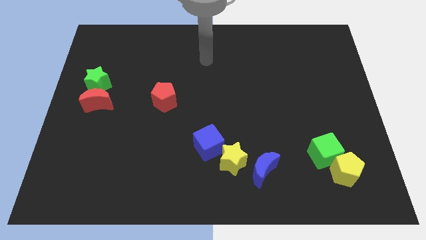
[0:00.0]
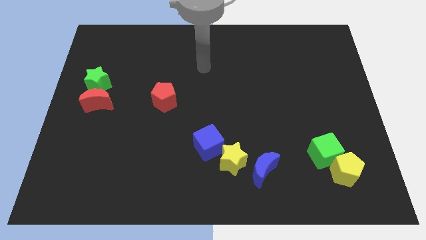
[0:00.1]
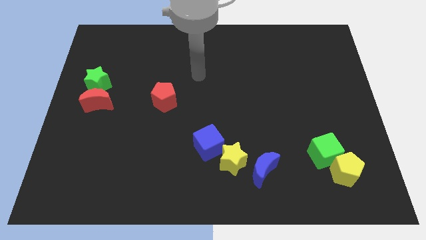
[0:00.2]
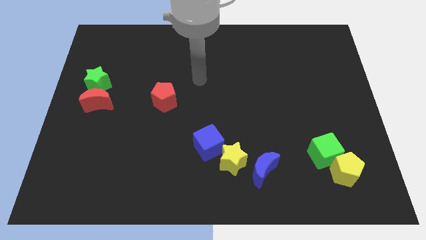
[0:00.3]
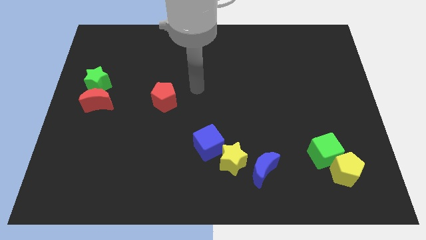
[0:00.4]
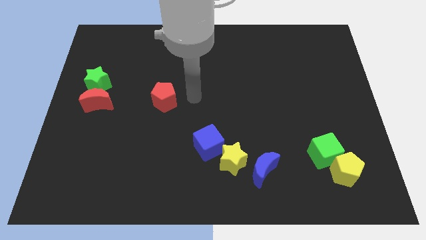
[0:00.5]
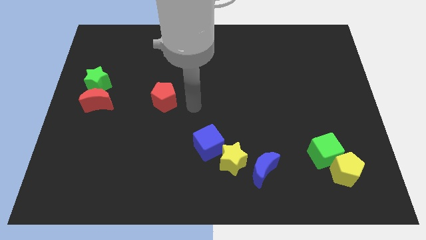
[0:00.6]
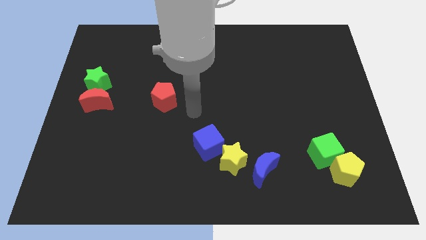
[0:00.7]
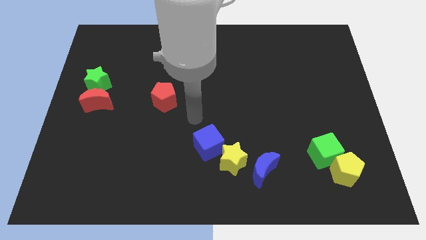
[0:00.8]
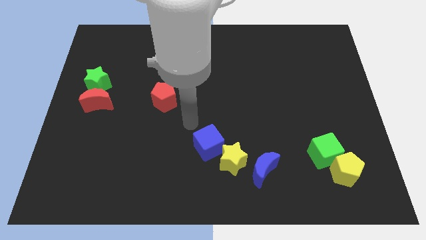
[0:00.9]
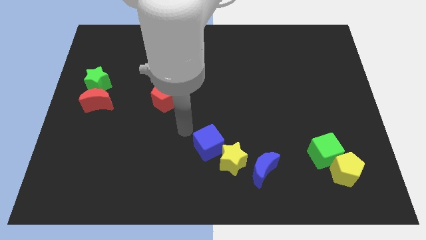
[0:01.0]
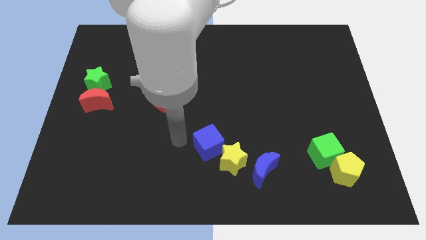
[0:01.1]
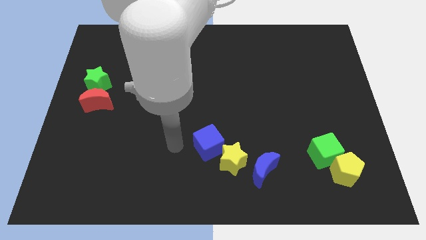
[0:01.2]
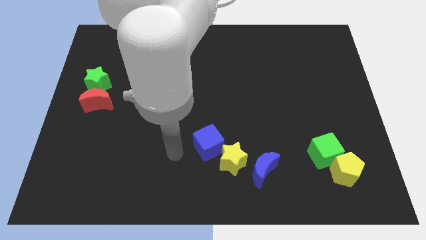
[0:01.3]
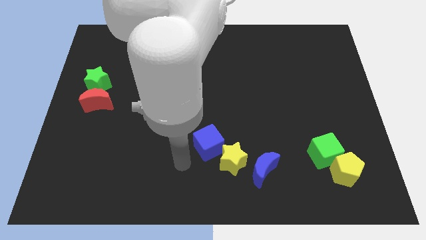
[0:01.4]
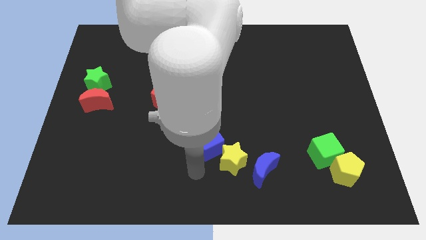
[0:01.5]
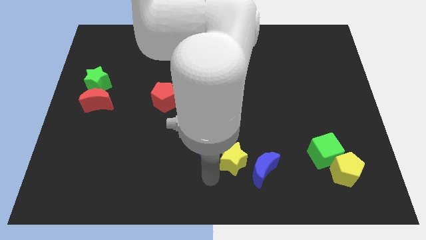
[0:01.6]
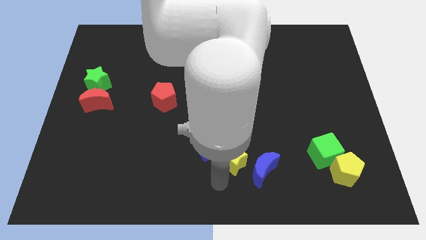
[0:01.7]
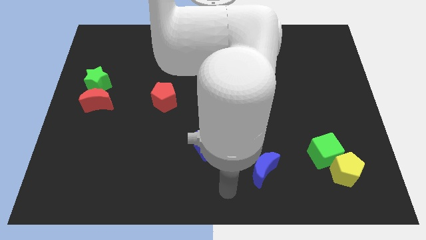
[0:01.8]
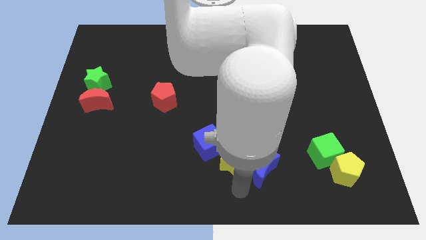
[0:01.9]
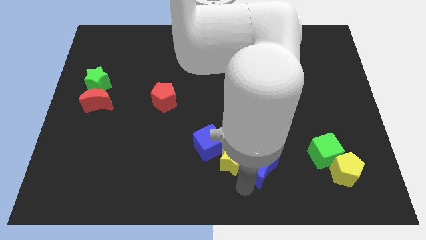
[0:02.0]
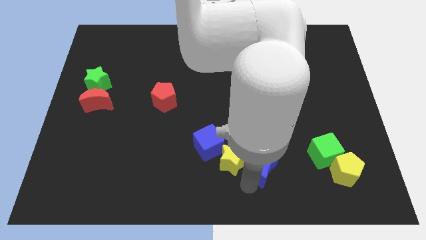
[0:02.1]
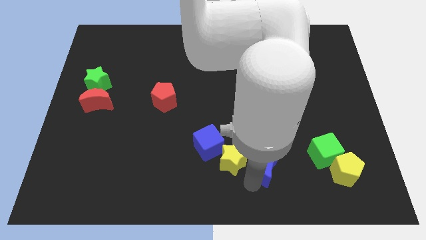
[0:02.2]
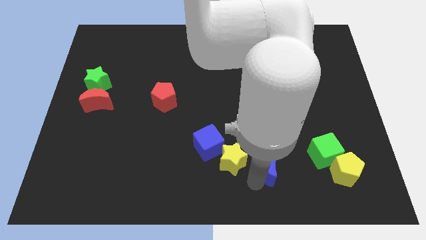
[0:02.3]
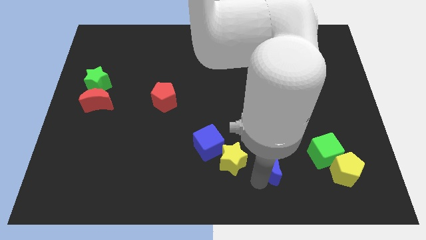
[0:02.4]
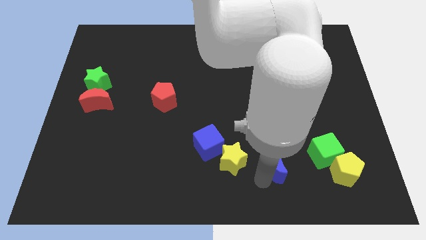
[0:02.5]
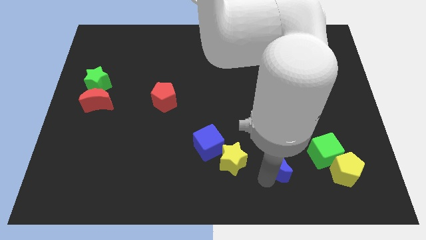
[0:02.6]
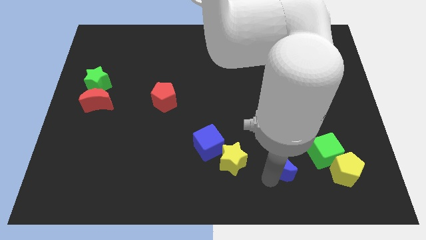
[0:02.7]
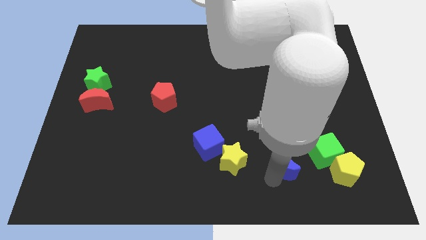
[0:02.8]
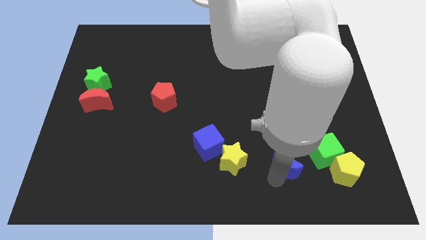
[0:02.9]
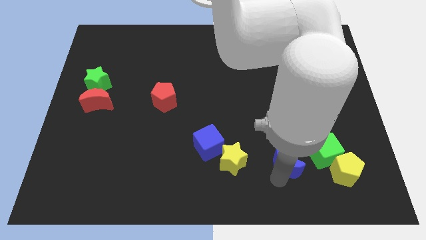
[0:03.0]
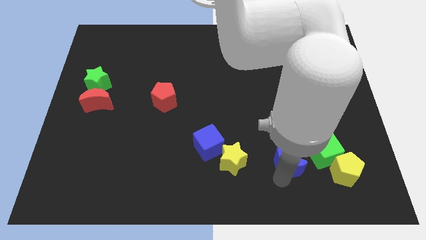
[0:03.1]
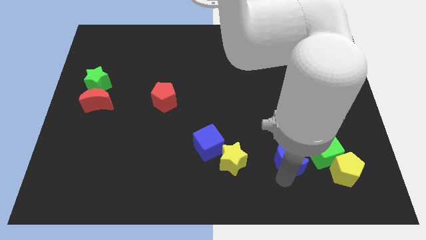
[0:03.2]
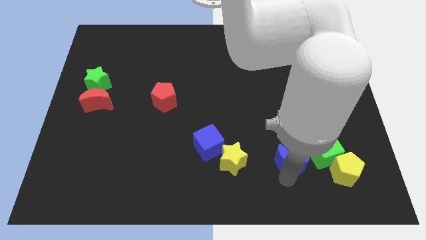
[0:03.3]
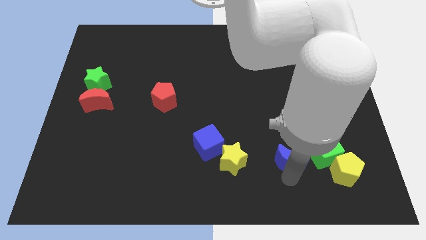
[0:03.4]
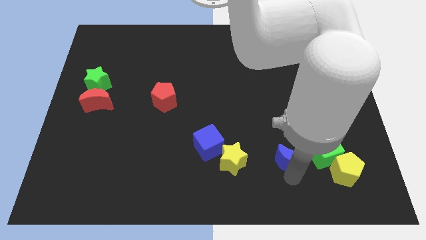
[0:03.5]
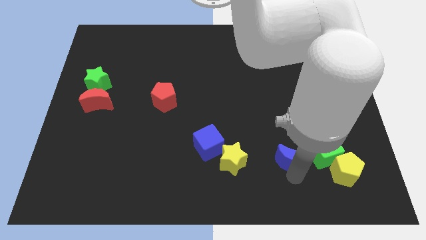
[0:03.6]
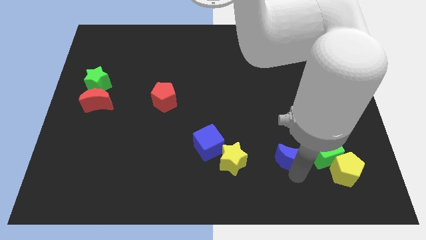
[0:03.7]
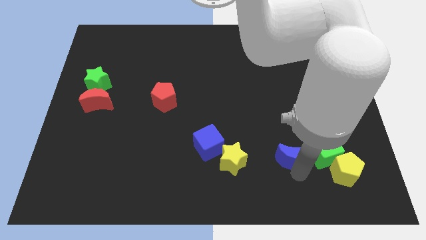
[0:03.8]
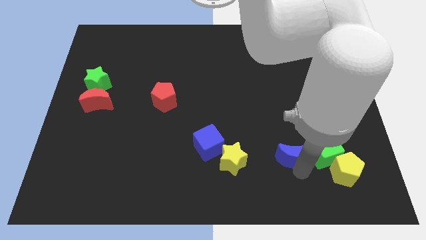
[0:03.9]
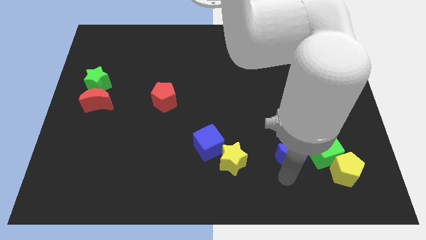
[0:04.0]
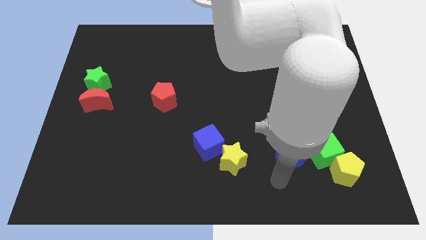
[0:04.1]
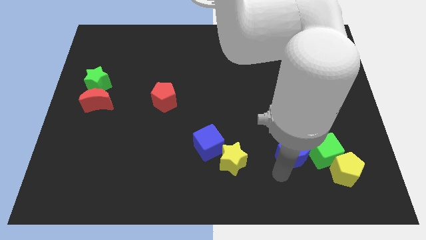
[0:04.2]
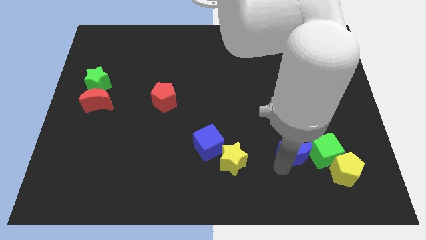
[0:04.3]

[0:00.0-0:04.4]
move the blue moon slightly upwards and then to the right

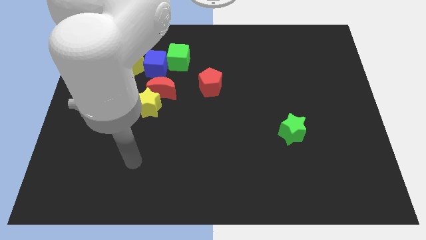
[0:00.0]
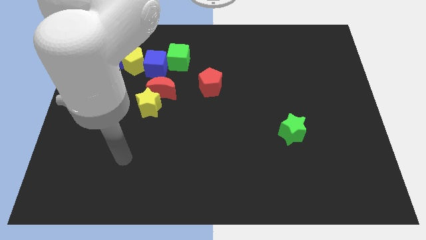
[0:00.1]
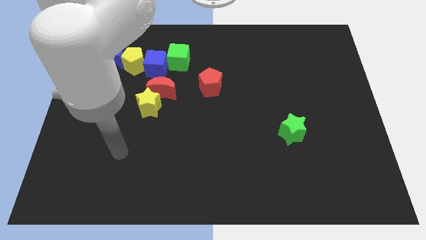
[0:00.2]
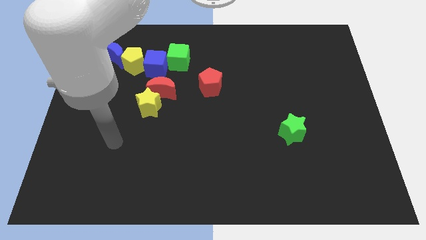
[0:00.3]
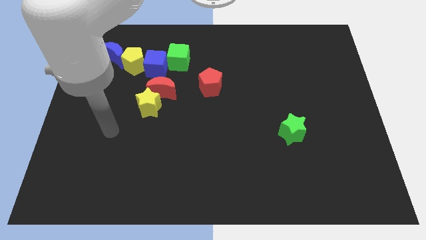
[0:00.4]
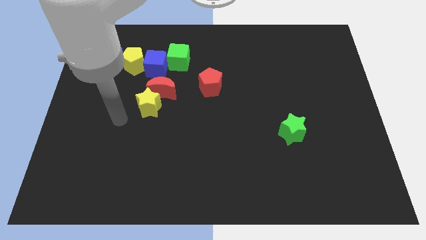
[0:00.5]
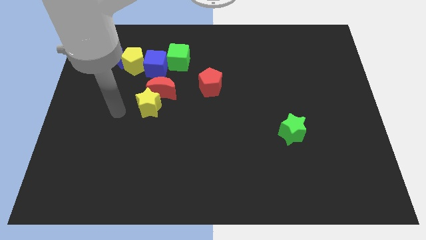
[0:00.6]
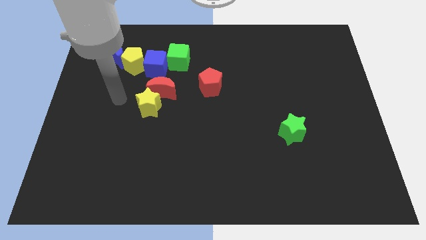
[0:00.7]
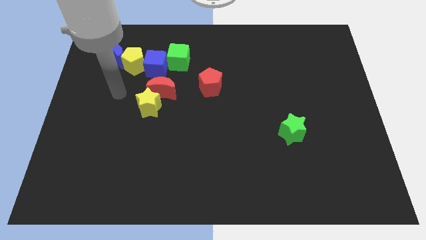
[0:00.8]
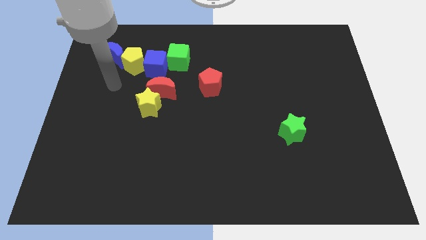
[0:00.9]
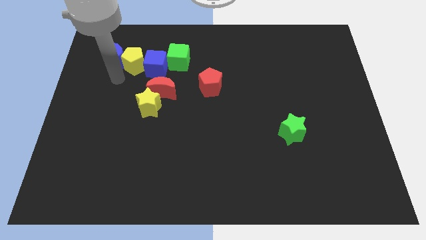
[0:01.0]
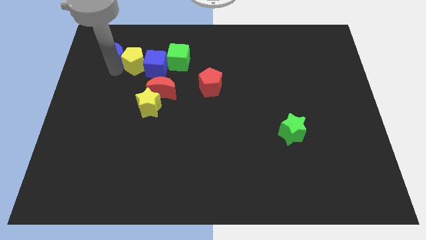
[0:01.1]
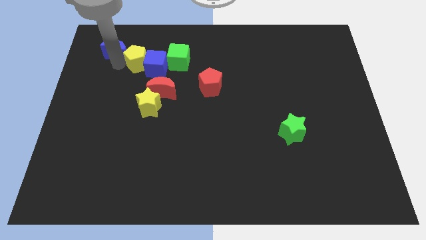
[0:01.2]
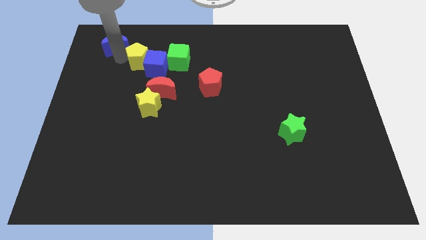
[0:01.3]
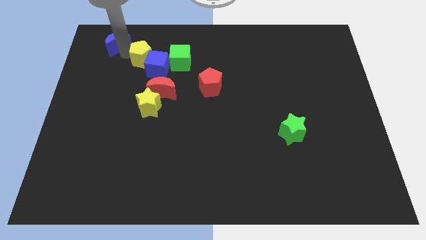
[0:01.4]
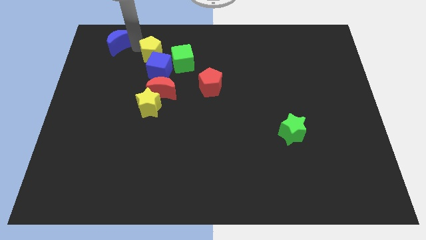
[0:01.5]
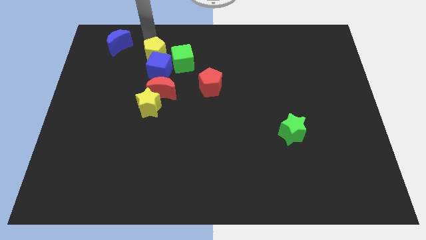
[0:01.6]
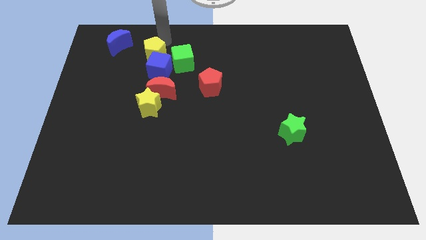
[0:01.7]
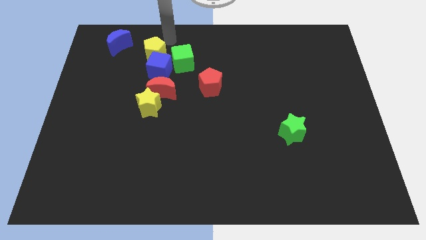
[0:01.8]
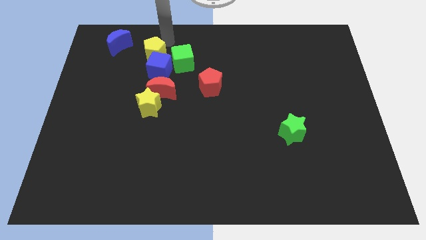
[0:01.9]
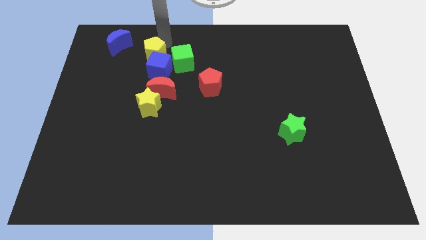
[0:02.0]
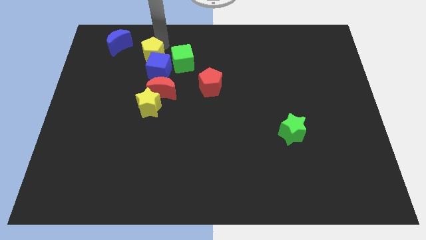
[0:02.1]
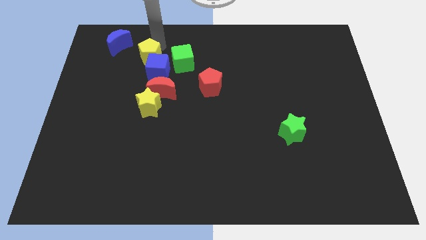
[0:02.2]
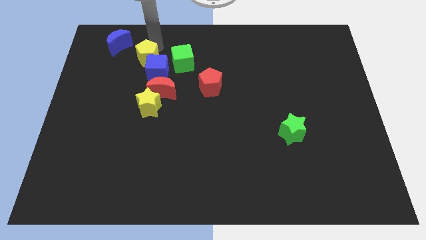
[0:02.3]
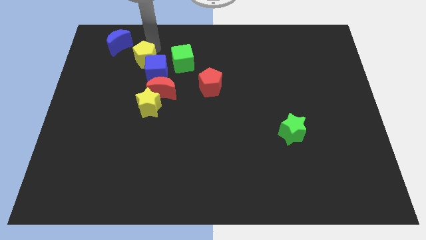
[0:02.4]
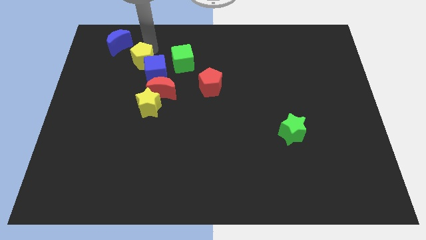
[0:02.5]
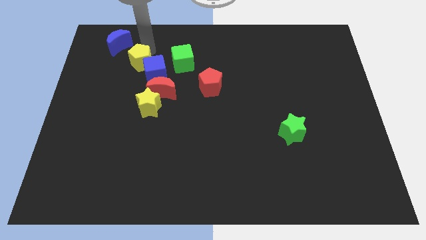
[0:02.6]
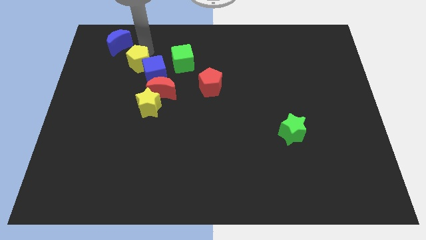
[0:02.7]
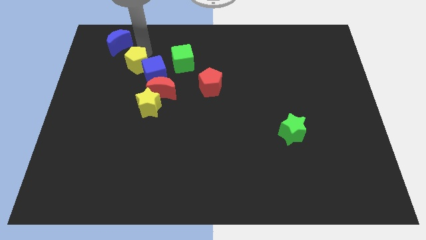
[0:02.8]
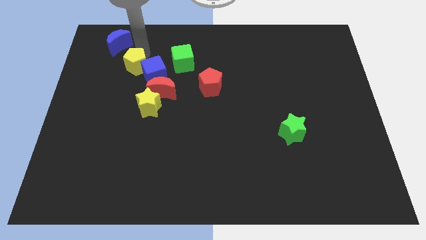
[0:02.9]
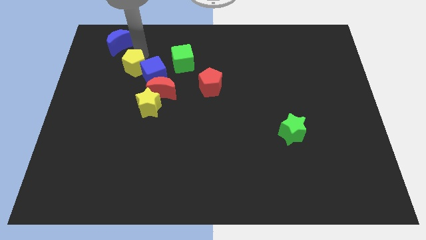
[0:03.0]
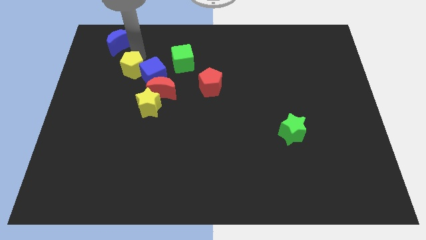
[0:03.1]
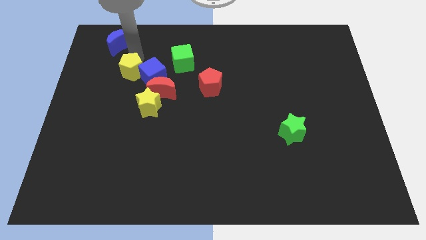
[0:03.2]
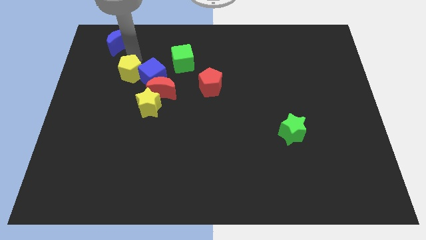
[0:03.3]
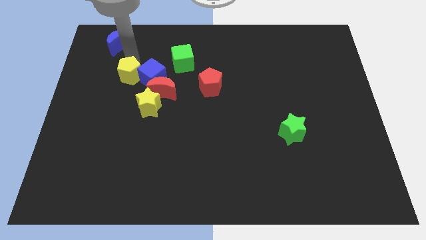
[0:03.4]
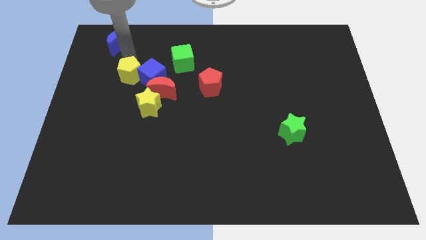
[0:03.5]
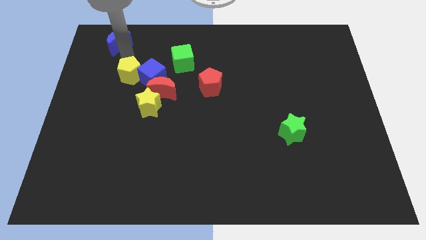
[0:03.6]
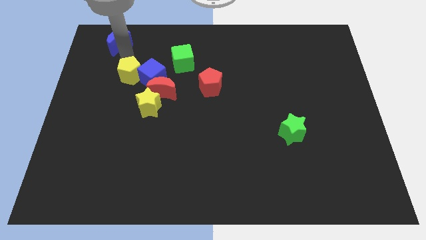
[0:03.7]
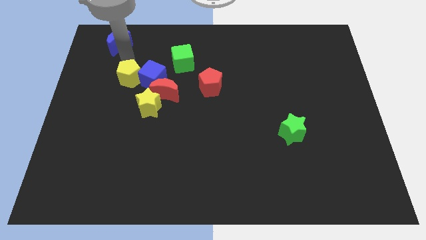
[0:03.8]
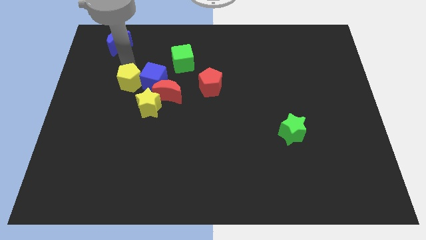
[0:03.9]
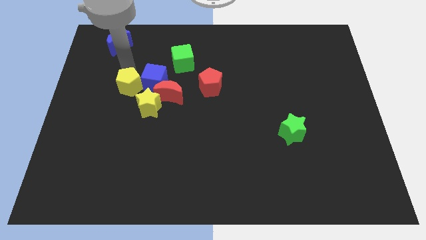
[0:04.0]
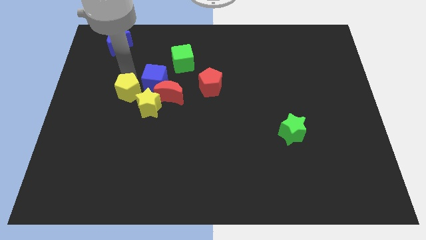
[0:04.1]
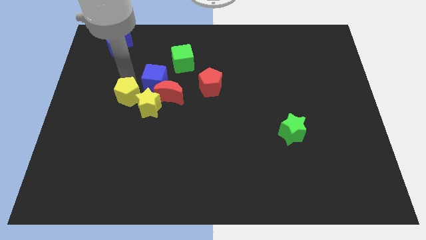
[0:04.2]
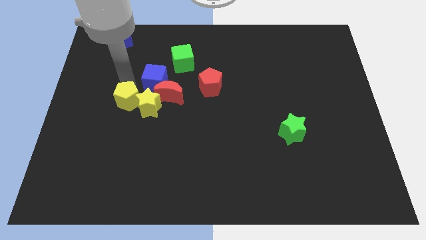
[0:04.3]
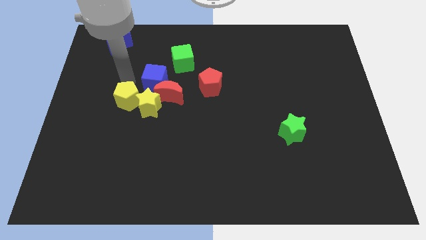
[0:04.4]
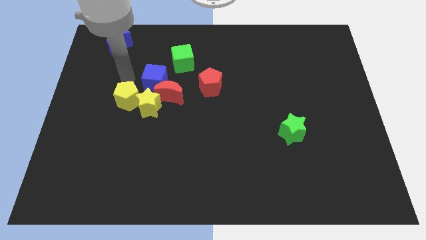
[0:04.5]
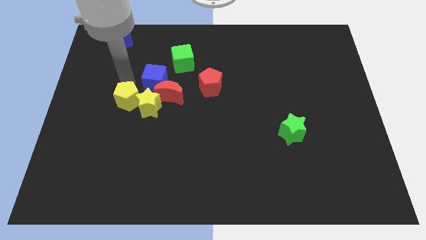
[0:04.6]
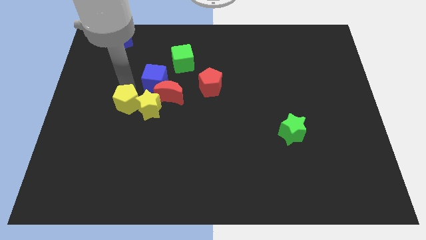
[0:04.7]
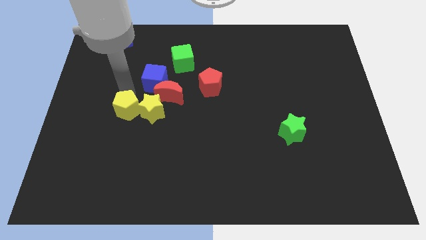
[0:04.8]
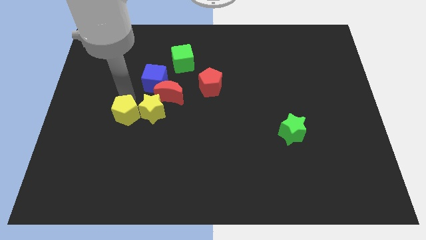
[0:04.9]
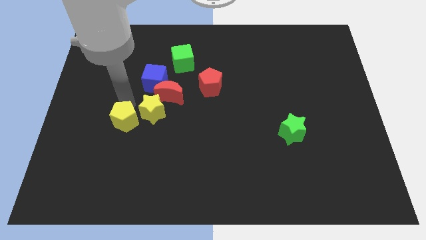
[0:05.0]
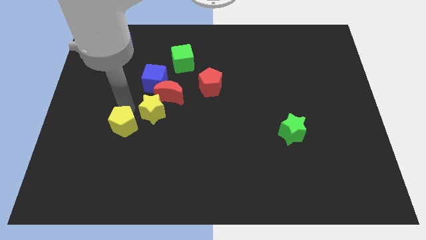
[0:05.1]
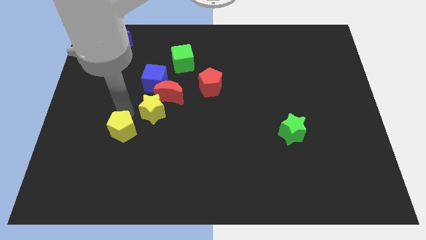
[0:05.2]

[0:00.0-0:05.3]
slide the yellow pentagon downwards
